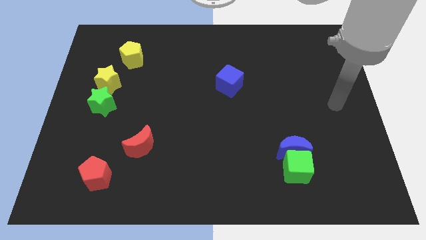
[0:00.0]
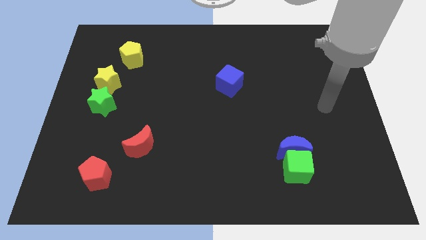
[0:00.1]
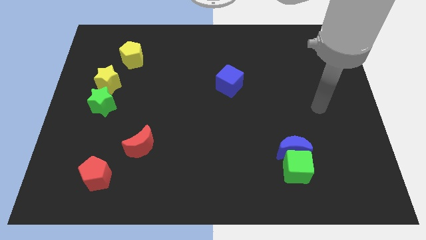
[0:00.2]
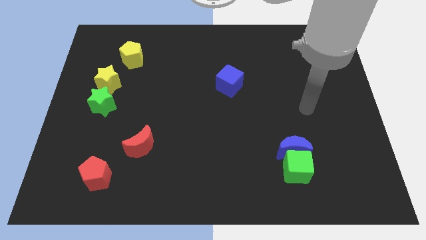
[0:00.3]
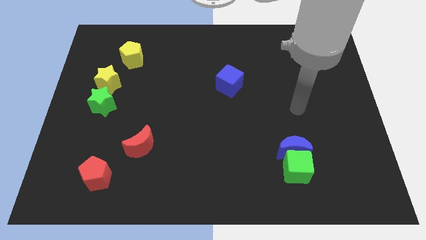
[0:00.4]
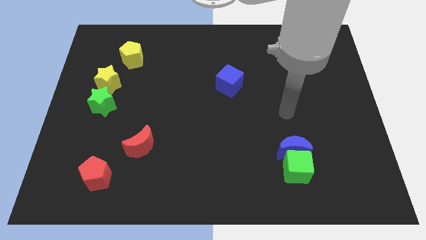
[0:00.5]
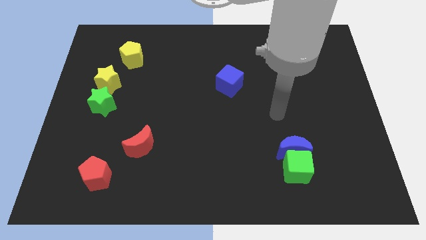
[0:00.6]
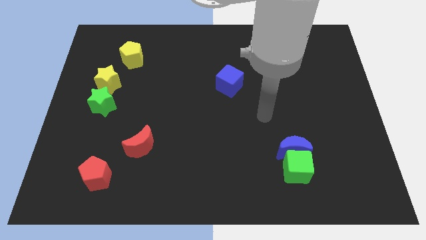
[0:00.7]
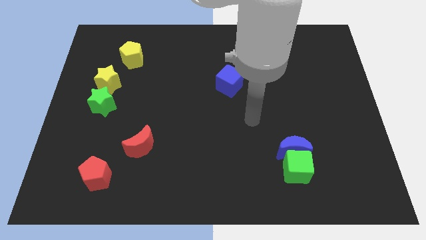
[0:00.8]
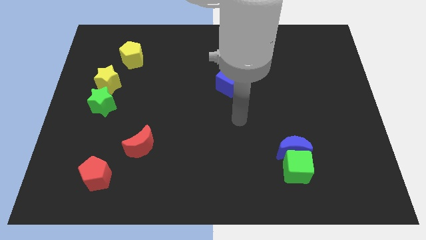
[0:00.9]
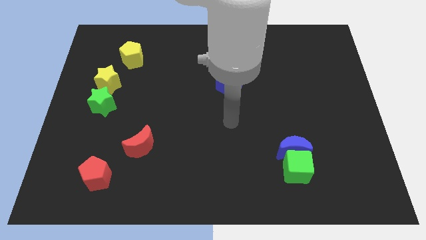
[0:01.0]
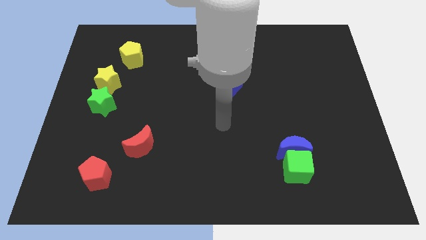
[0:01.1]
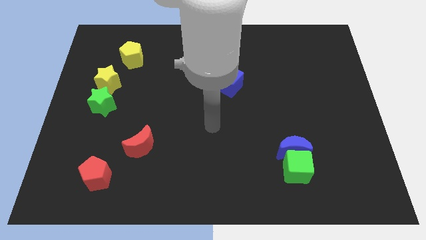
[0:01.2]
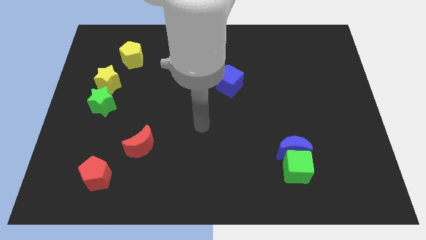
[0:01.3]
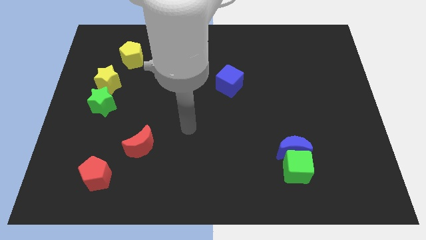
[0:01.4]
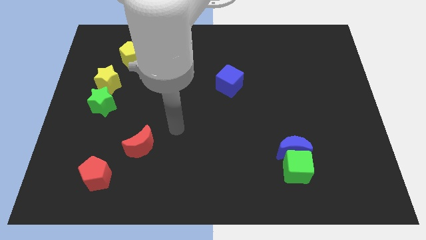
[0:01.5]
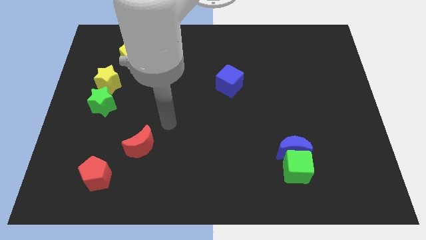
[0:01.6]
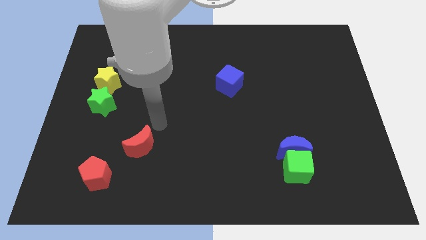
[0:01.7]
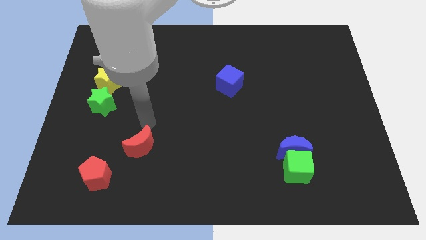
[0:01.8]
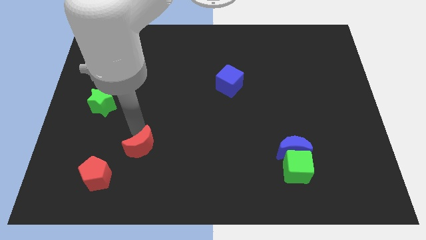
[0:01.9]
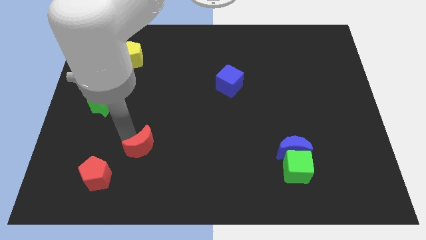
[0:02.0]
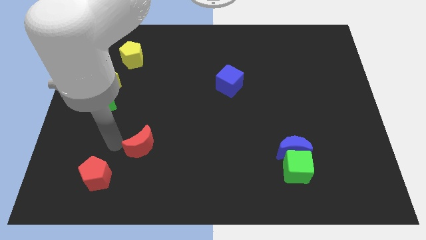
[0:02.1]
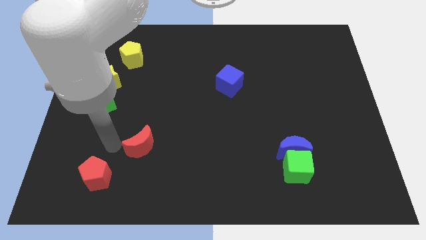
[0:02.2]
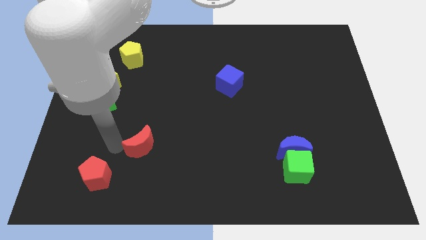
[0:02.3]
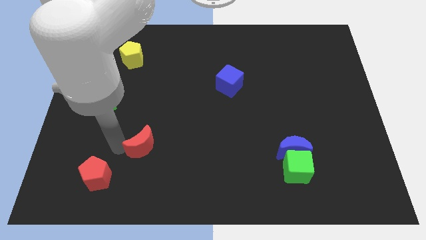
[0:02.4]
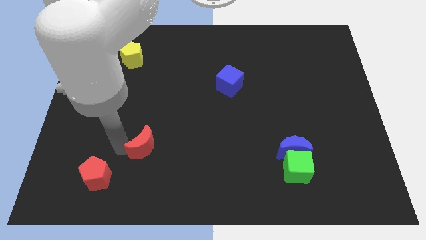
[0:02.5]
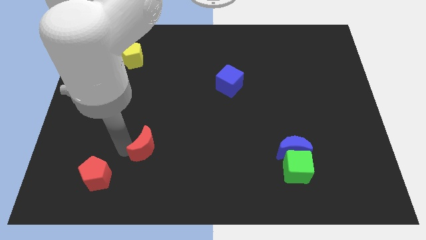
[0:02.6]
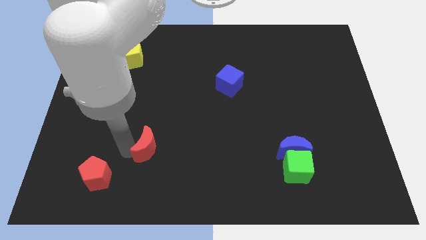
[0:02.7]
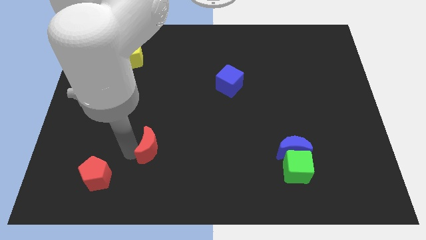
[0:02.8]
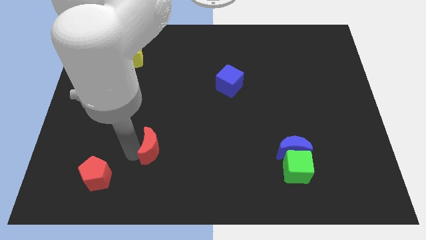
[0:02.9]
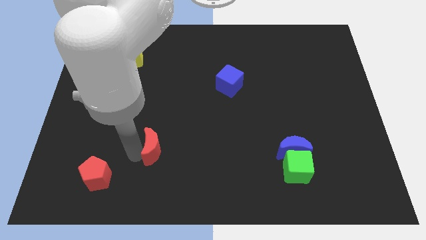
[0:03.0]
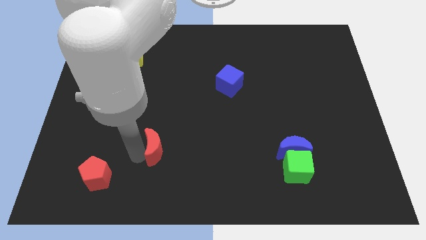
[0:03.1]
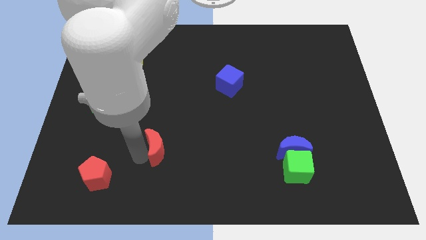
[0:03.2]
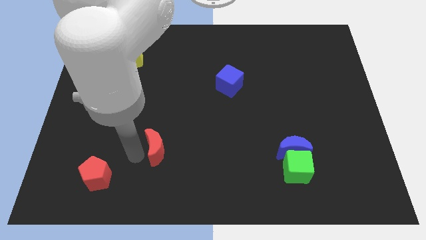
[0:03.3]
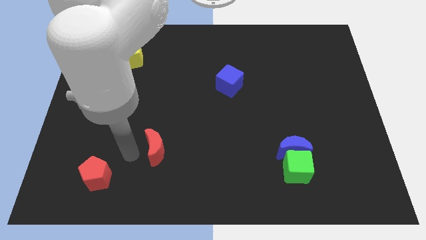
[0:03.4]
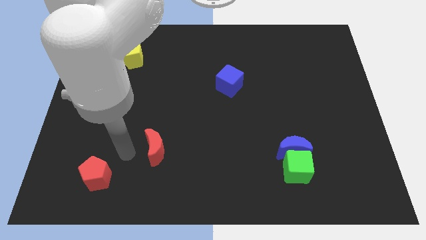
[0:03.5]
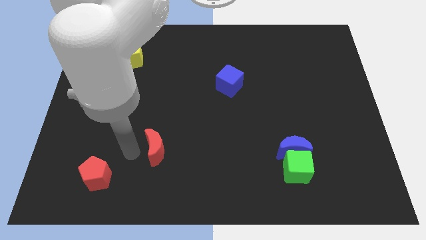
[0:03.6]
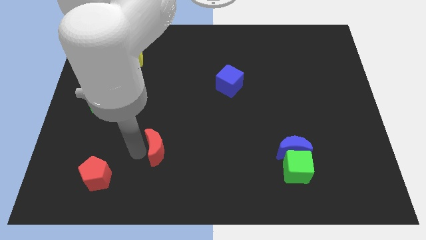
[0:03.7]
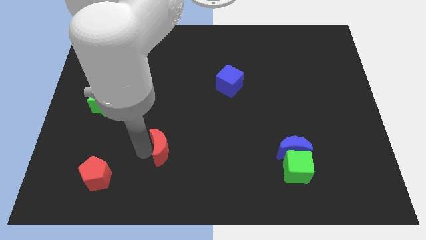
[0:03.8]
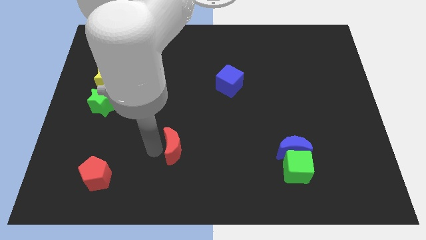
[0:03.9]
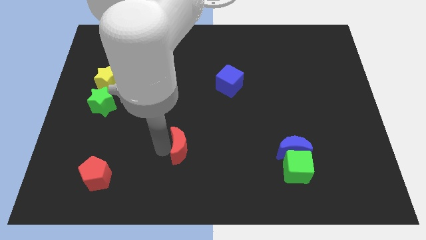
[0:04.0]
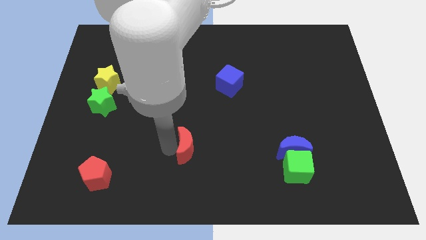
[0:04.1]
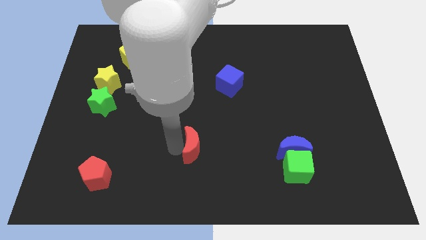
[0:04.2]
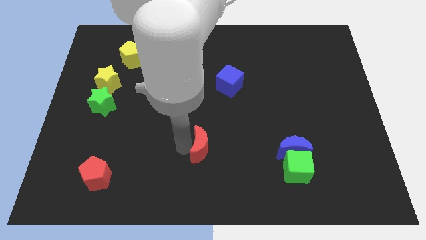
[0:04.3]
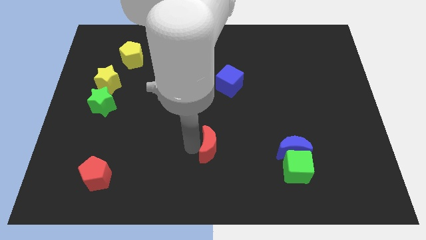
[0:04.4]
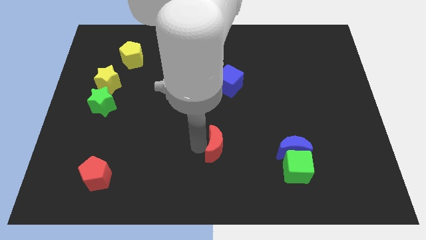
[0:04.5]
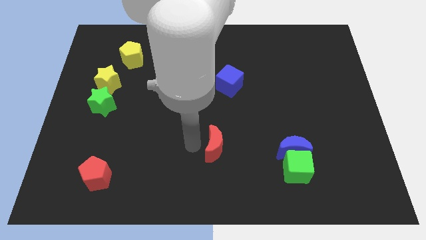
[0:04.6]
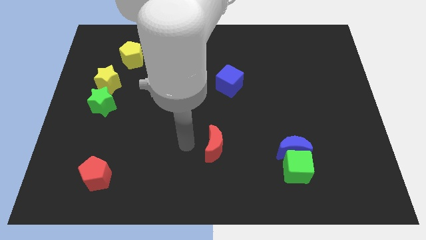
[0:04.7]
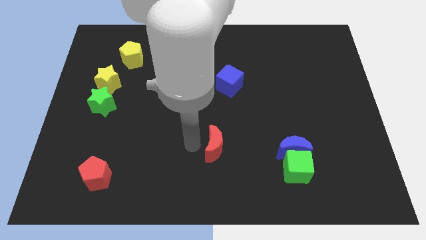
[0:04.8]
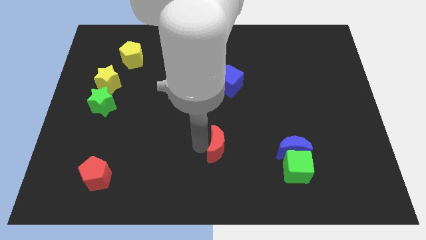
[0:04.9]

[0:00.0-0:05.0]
move the red moon to the left side of the blue moon

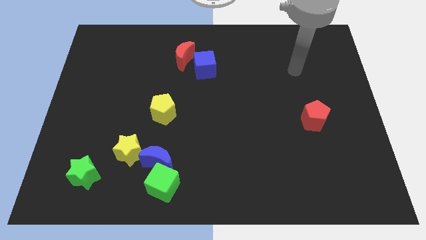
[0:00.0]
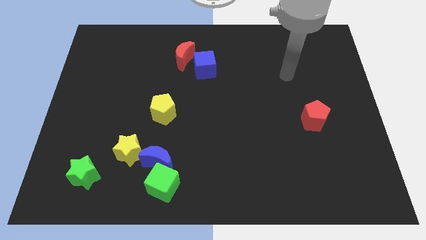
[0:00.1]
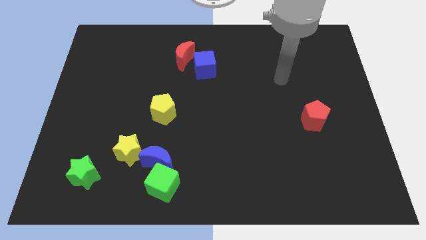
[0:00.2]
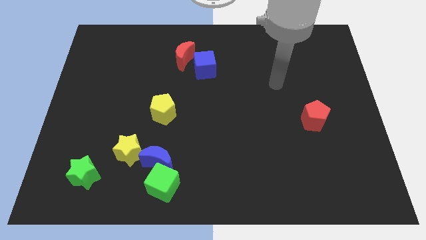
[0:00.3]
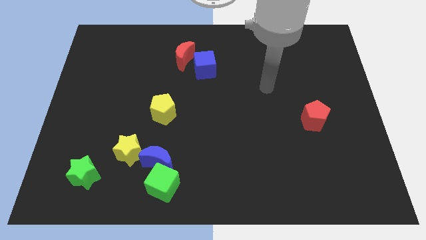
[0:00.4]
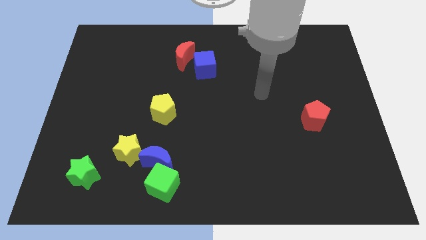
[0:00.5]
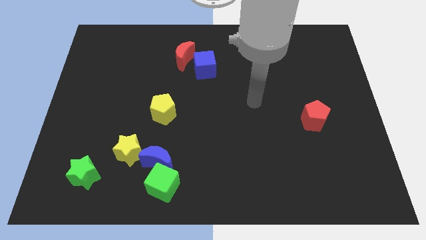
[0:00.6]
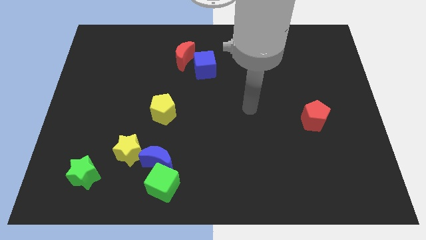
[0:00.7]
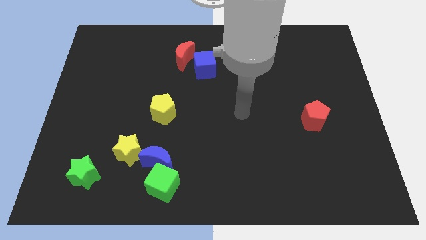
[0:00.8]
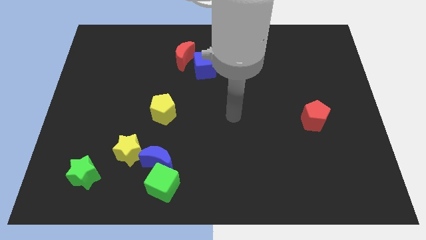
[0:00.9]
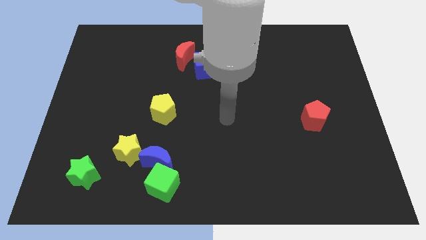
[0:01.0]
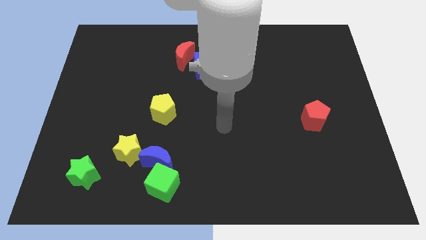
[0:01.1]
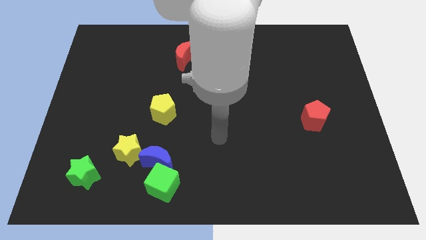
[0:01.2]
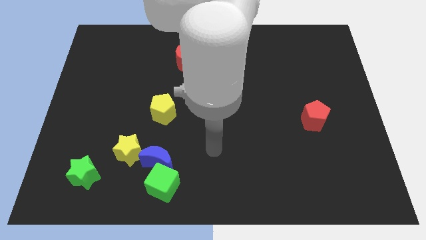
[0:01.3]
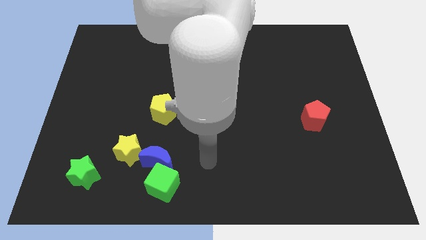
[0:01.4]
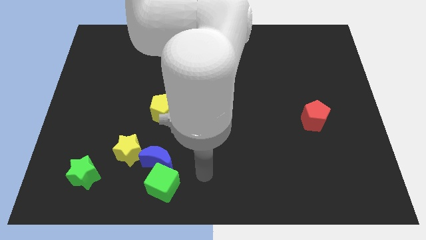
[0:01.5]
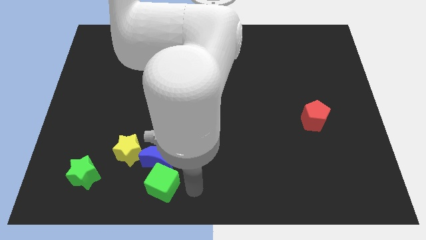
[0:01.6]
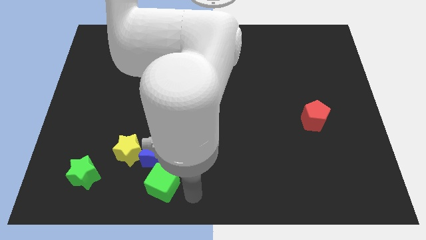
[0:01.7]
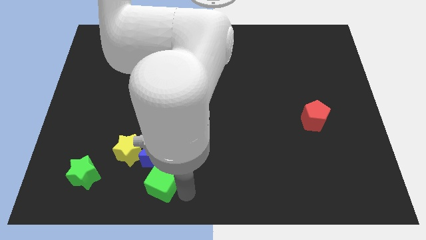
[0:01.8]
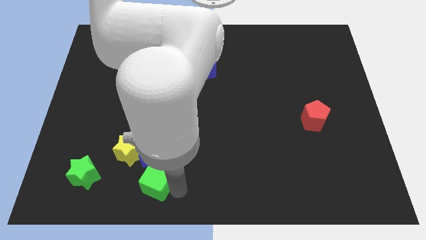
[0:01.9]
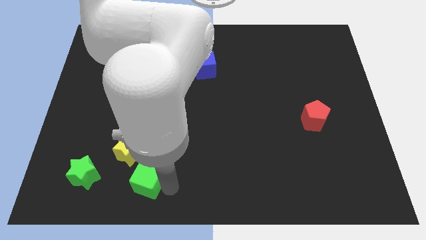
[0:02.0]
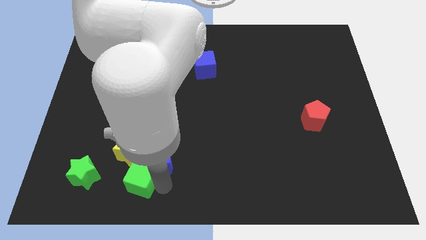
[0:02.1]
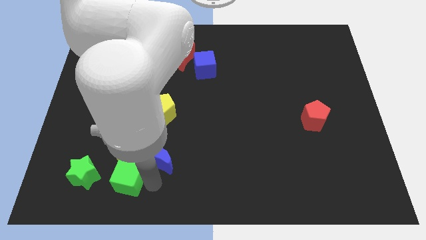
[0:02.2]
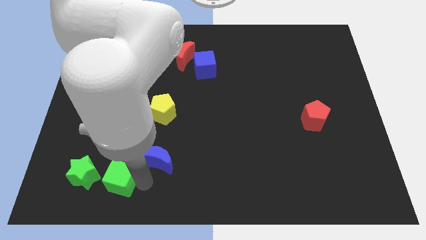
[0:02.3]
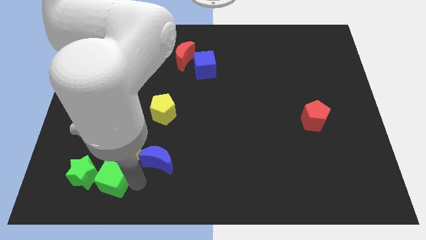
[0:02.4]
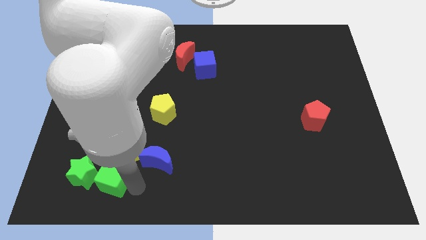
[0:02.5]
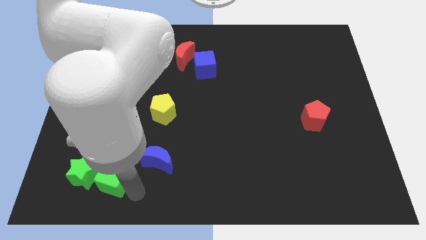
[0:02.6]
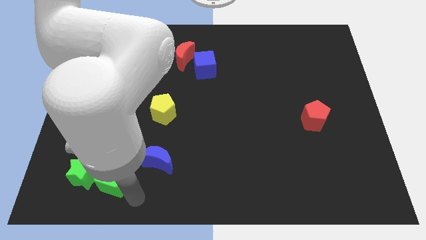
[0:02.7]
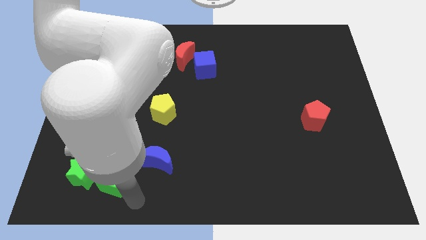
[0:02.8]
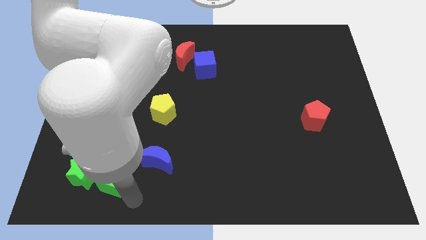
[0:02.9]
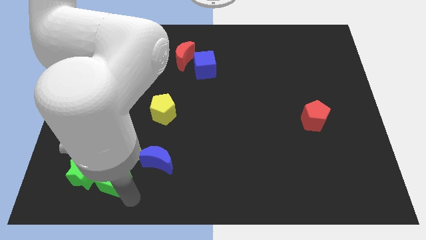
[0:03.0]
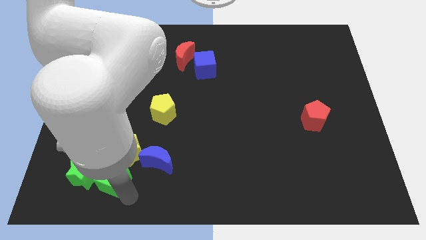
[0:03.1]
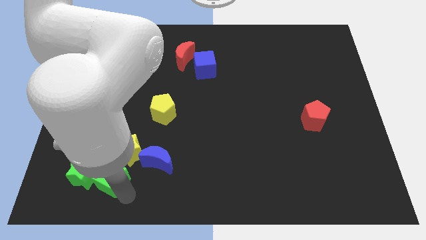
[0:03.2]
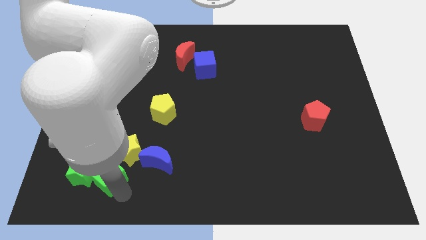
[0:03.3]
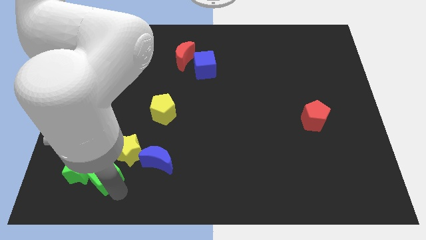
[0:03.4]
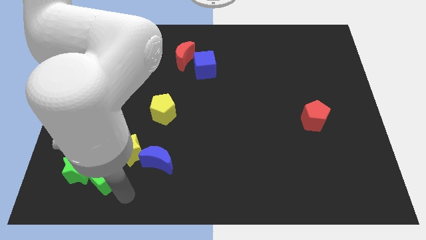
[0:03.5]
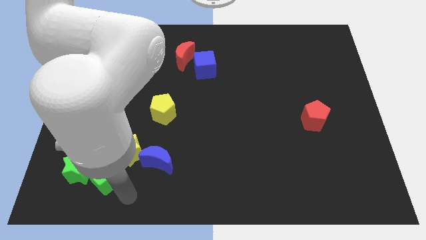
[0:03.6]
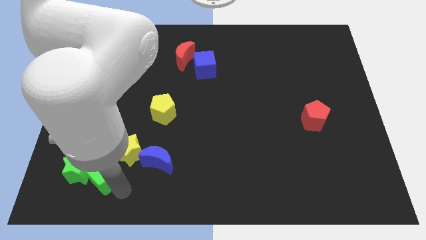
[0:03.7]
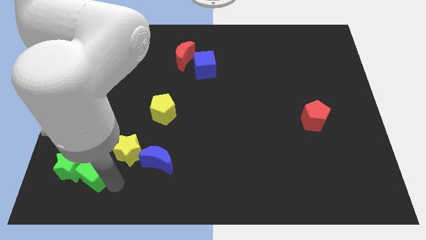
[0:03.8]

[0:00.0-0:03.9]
move the green cube to the left side of the yellow star
